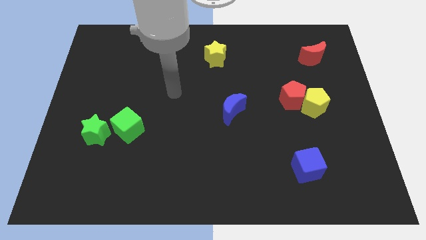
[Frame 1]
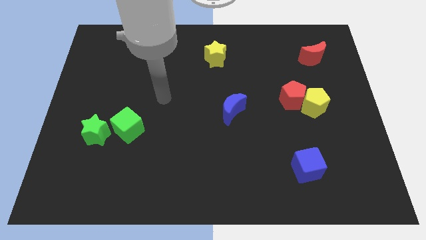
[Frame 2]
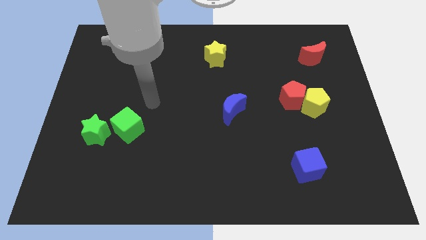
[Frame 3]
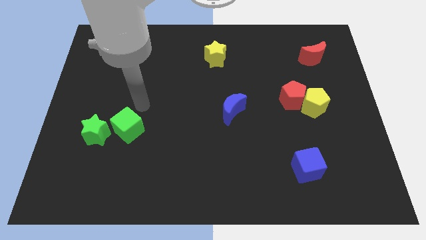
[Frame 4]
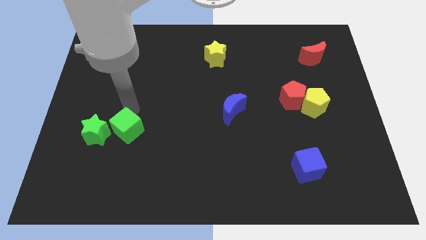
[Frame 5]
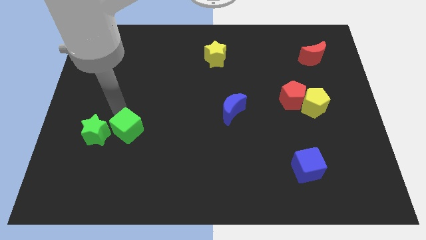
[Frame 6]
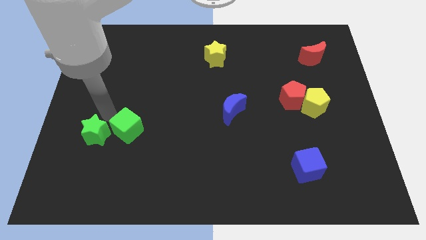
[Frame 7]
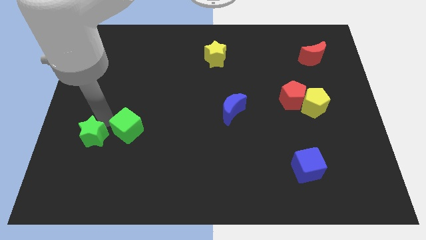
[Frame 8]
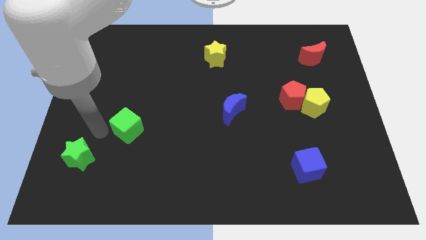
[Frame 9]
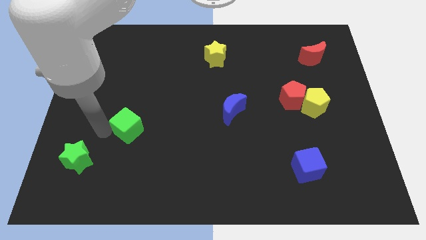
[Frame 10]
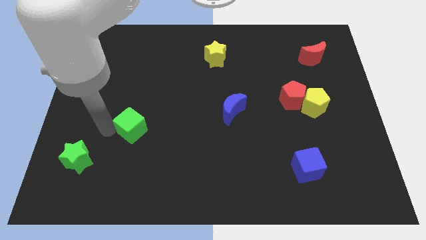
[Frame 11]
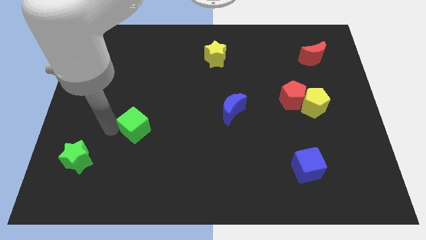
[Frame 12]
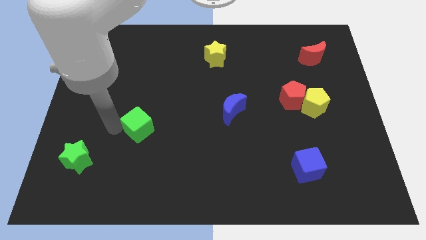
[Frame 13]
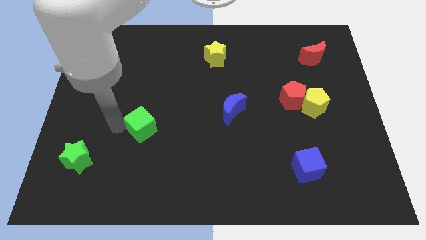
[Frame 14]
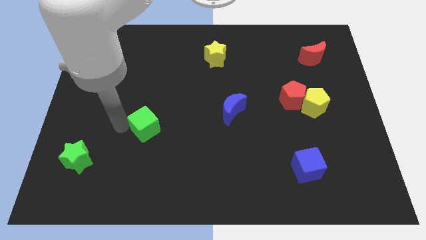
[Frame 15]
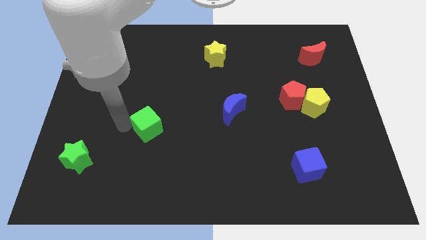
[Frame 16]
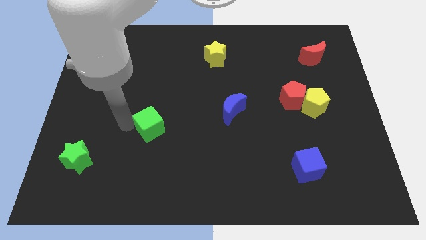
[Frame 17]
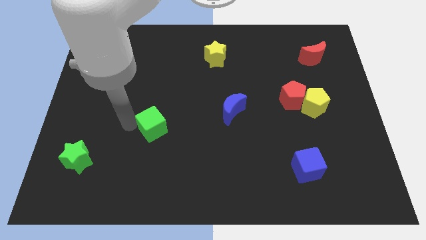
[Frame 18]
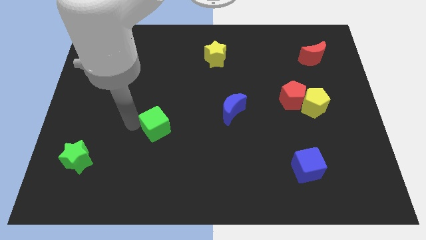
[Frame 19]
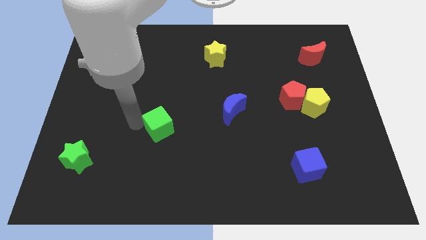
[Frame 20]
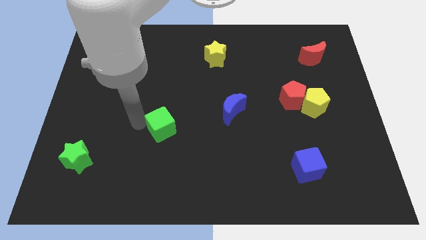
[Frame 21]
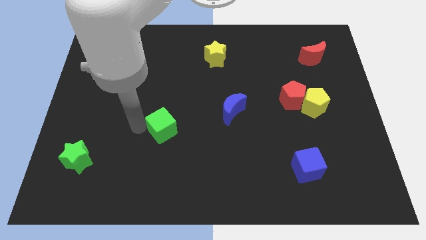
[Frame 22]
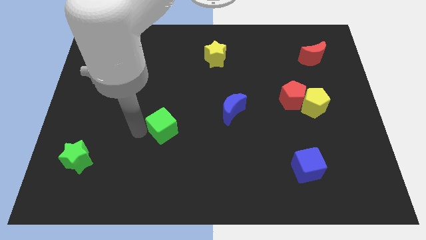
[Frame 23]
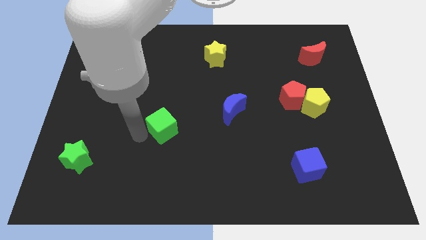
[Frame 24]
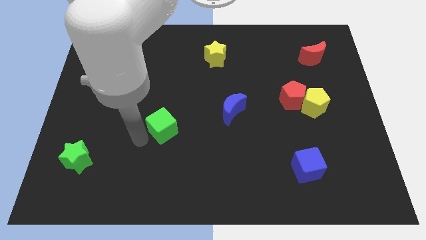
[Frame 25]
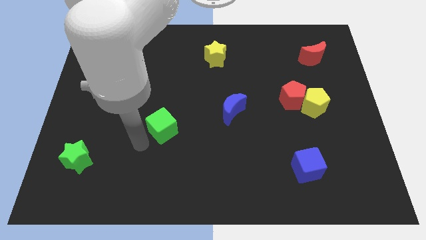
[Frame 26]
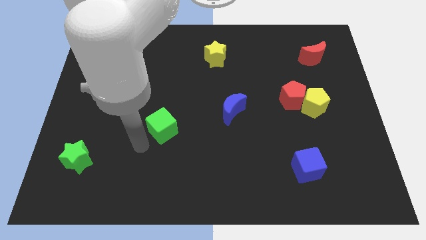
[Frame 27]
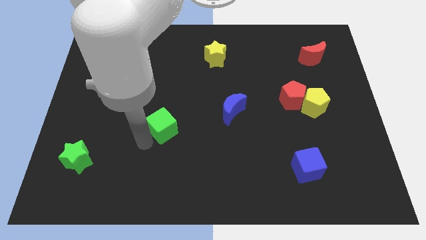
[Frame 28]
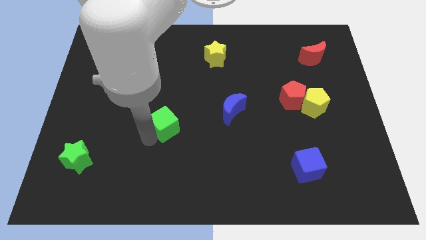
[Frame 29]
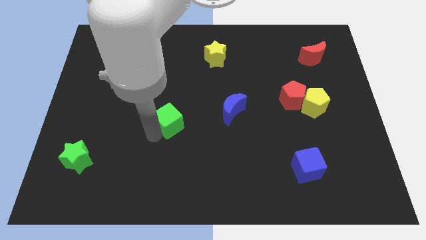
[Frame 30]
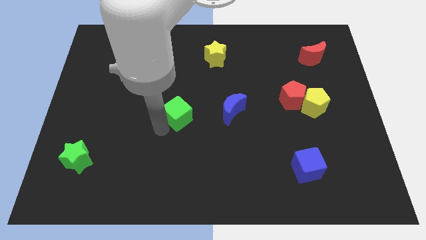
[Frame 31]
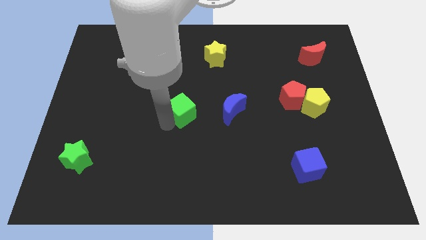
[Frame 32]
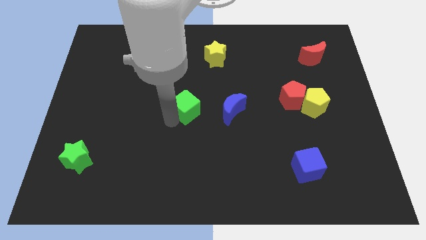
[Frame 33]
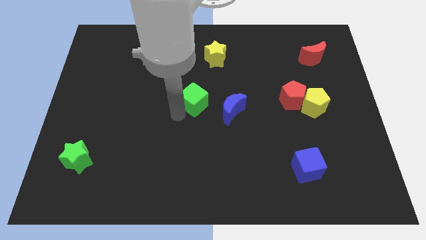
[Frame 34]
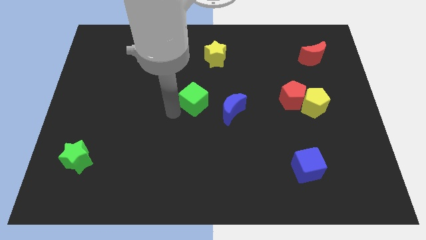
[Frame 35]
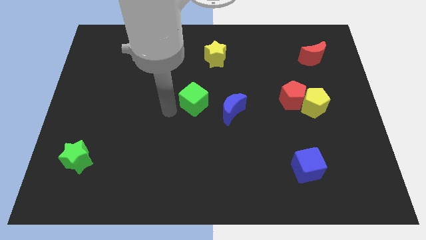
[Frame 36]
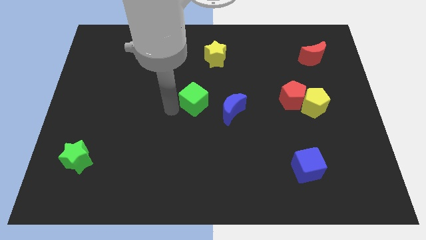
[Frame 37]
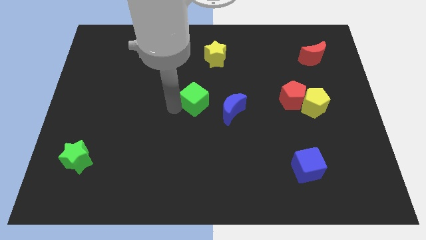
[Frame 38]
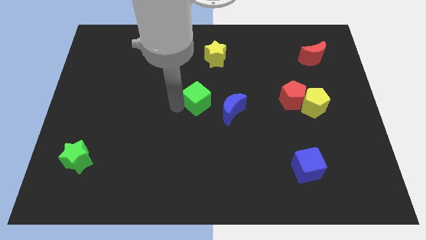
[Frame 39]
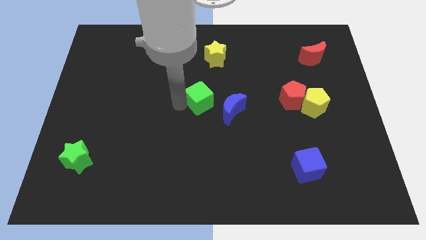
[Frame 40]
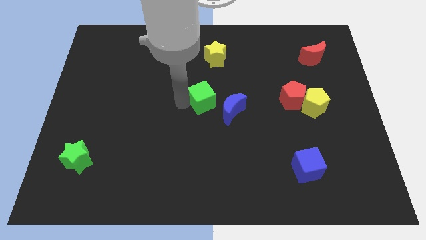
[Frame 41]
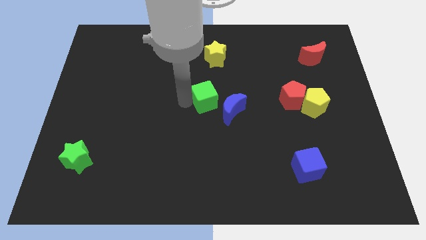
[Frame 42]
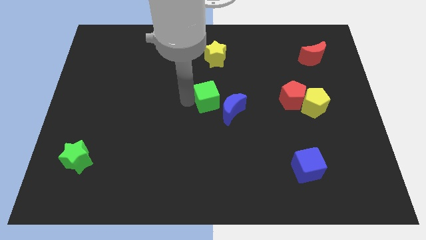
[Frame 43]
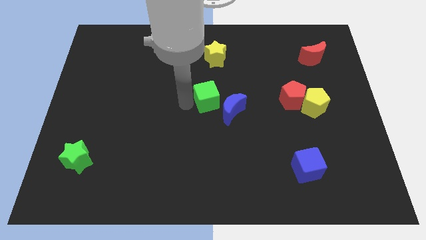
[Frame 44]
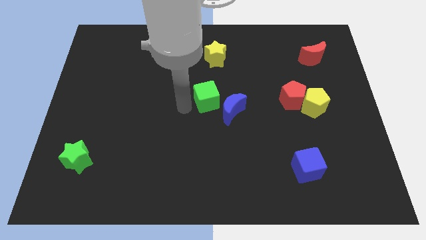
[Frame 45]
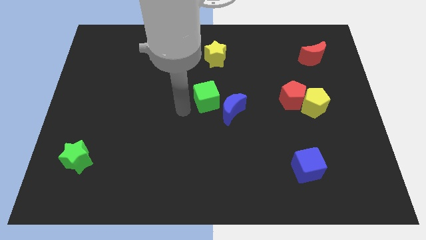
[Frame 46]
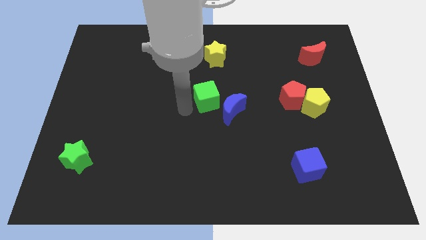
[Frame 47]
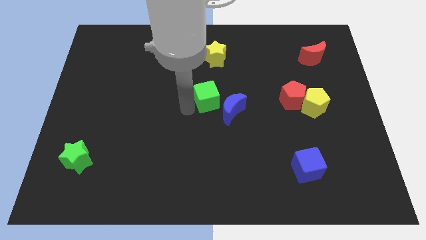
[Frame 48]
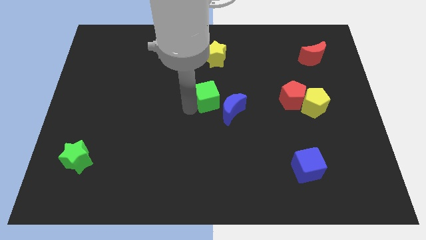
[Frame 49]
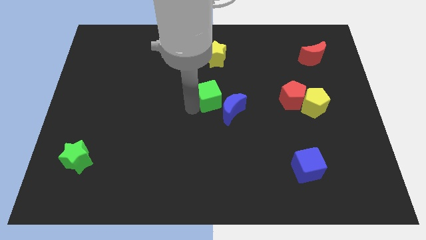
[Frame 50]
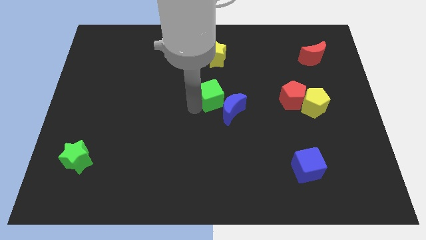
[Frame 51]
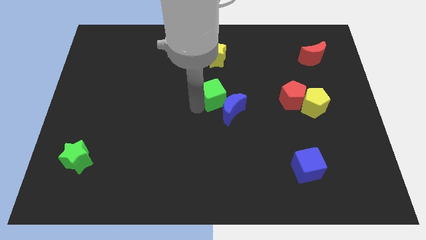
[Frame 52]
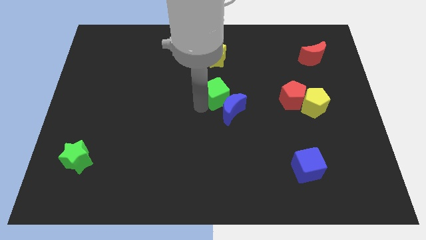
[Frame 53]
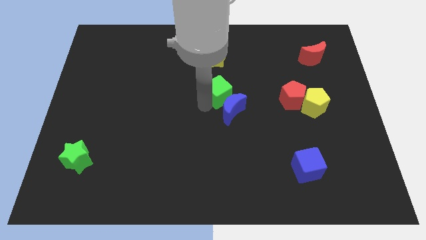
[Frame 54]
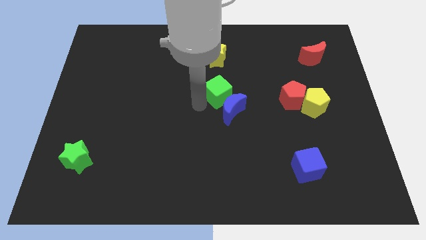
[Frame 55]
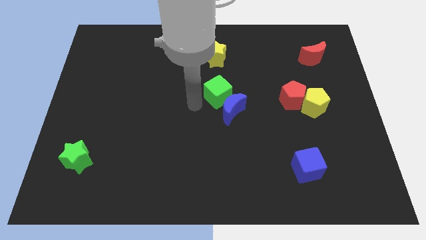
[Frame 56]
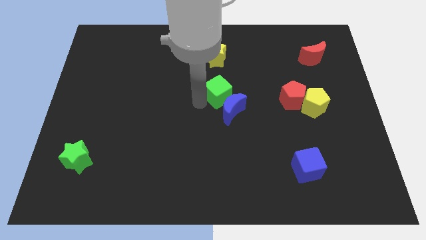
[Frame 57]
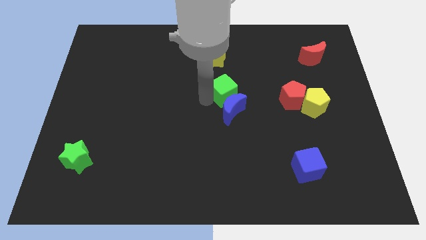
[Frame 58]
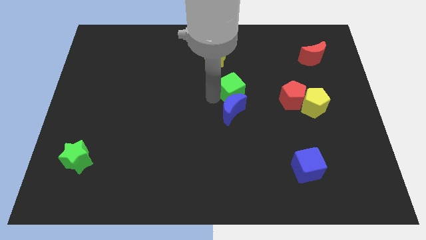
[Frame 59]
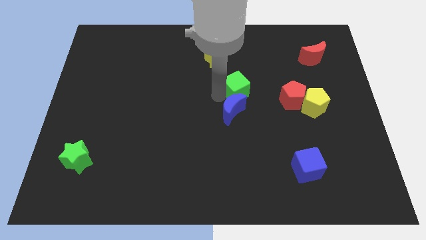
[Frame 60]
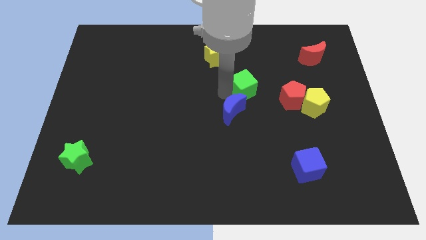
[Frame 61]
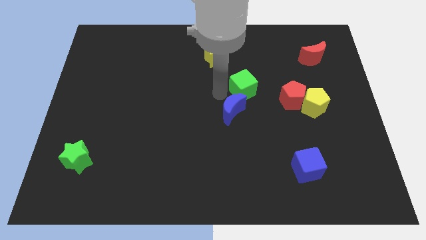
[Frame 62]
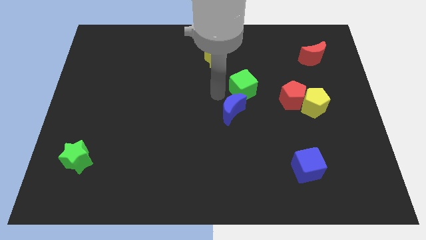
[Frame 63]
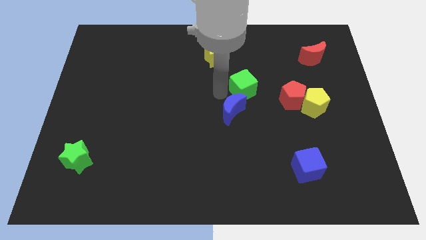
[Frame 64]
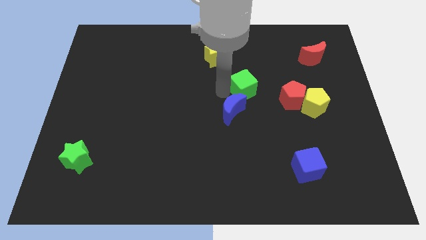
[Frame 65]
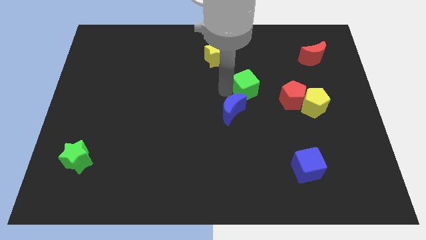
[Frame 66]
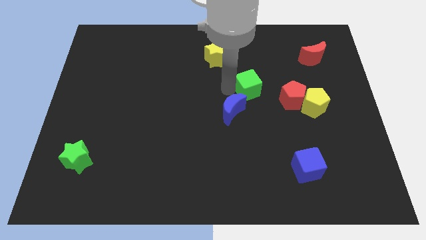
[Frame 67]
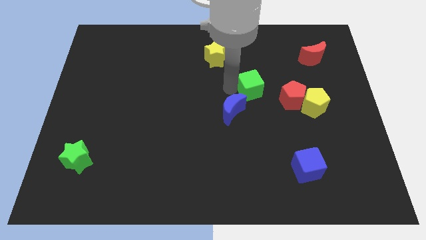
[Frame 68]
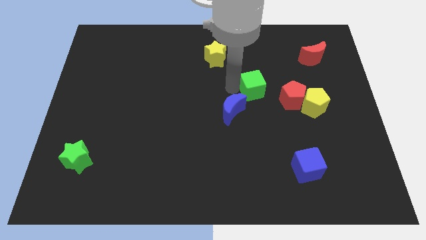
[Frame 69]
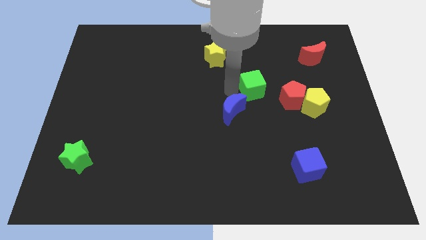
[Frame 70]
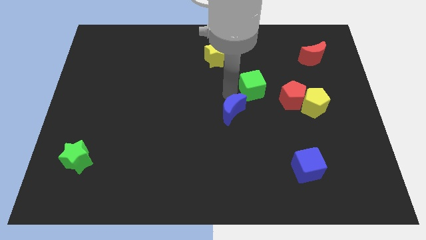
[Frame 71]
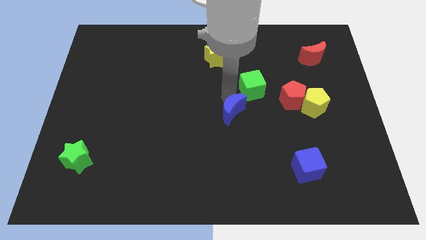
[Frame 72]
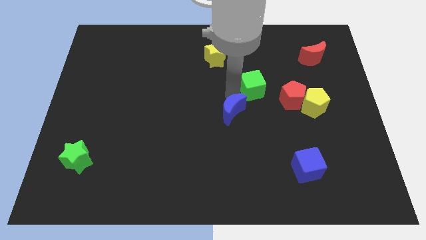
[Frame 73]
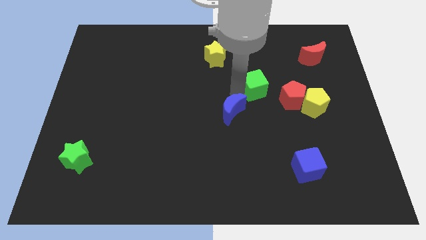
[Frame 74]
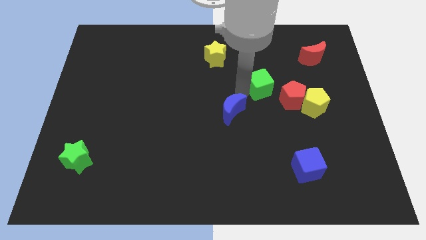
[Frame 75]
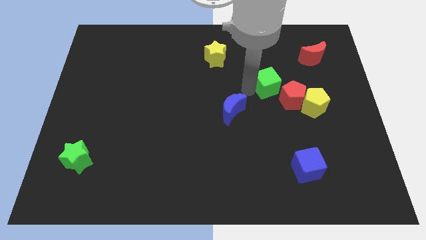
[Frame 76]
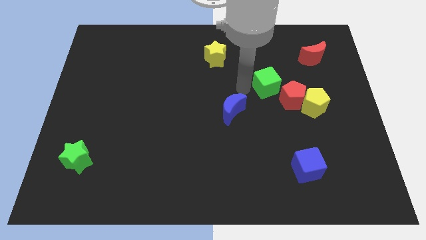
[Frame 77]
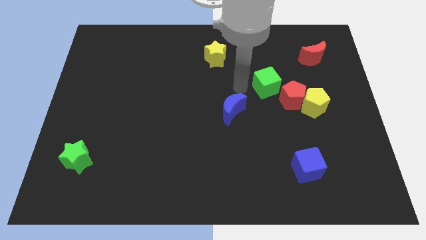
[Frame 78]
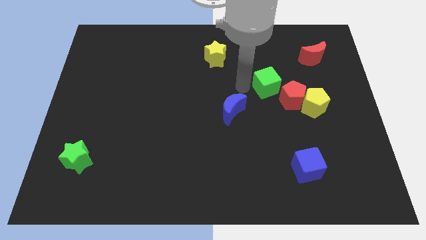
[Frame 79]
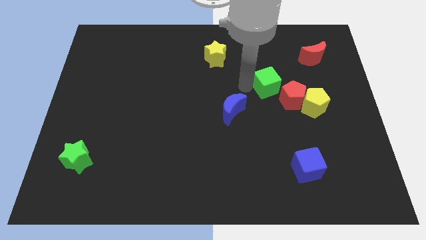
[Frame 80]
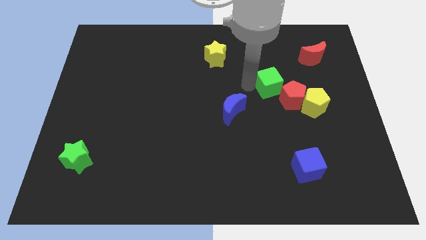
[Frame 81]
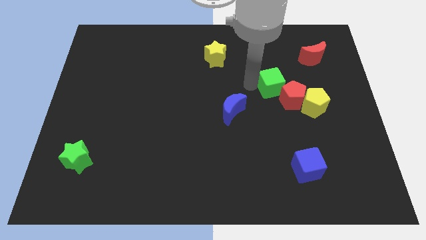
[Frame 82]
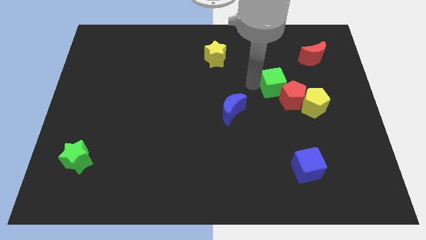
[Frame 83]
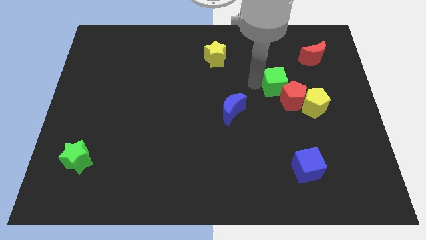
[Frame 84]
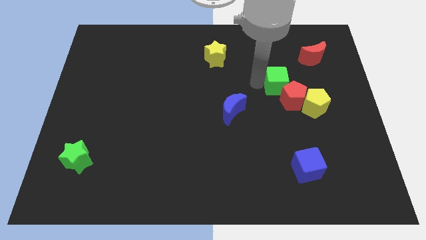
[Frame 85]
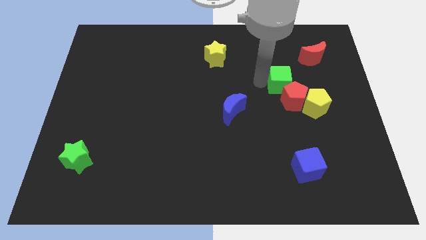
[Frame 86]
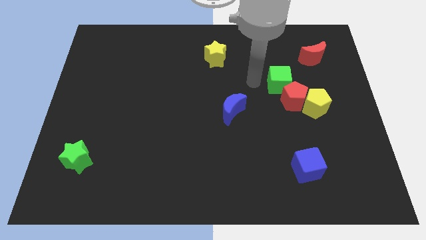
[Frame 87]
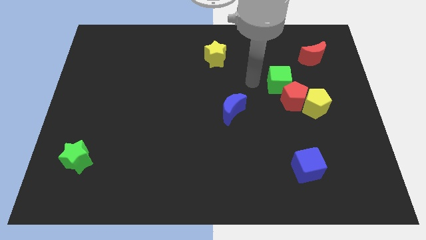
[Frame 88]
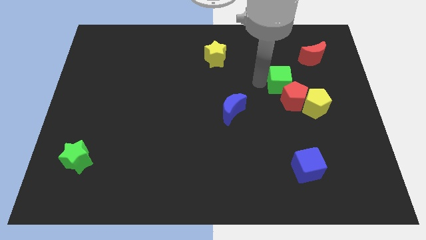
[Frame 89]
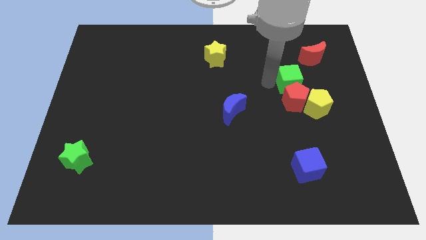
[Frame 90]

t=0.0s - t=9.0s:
put the green cube diagonally up and to the right of the red pentagon
